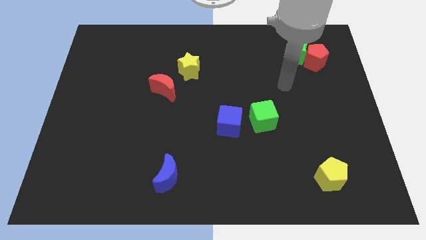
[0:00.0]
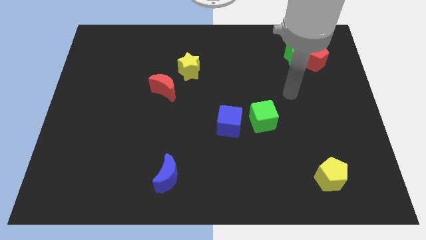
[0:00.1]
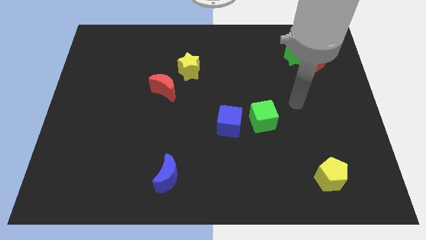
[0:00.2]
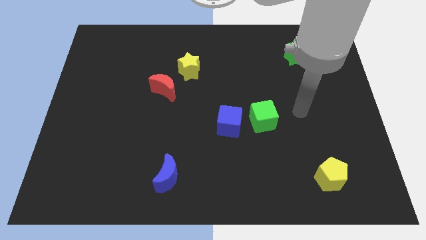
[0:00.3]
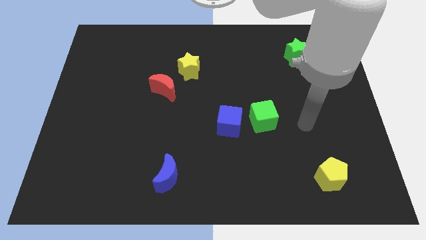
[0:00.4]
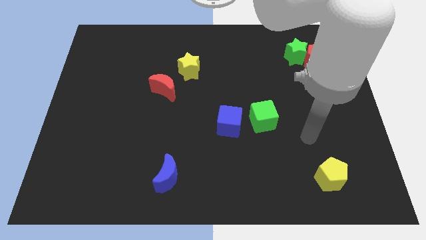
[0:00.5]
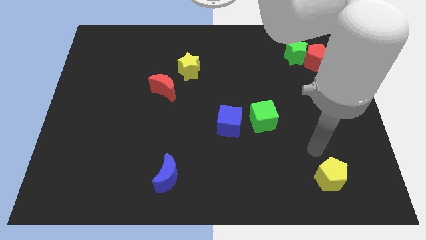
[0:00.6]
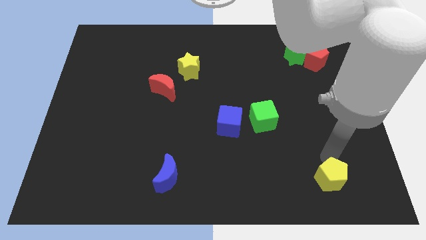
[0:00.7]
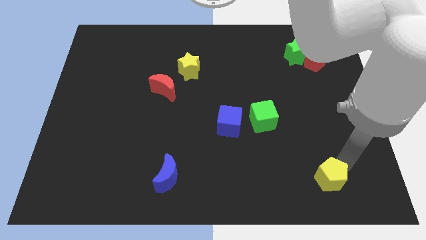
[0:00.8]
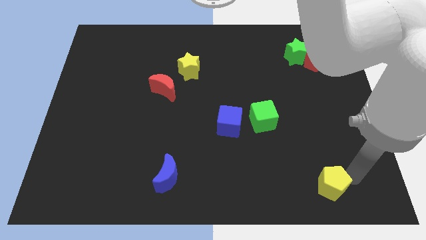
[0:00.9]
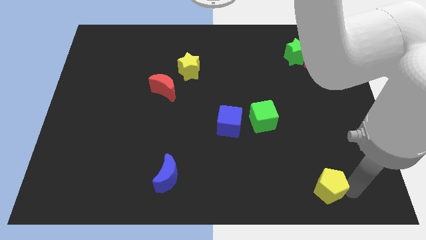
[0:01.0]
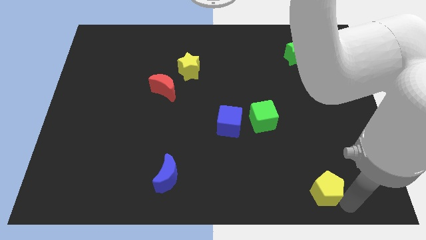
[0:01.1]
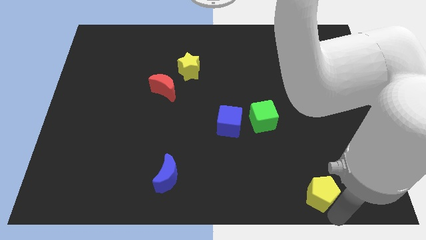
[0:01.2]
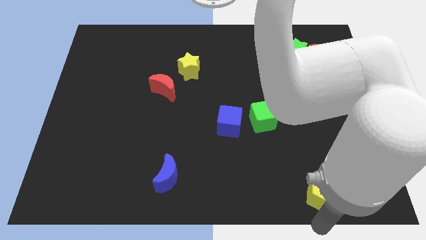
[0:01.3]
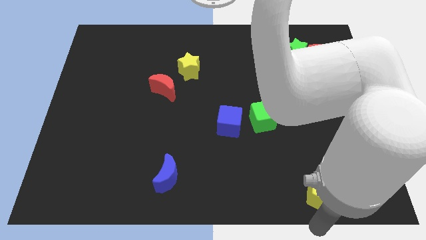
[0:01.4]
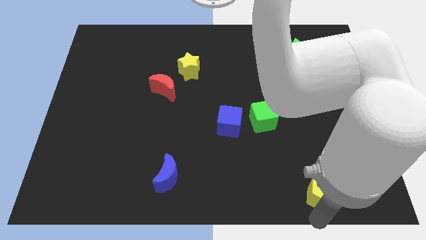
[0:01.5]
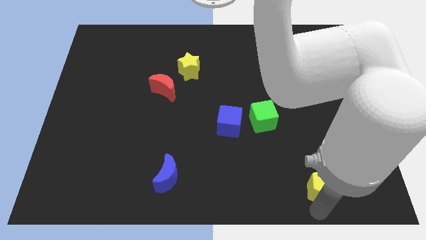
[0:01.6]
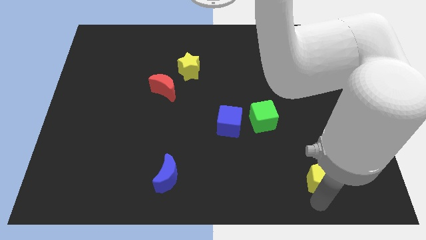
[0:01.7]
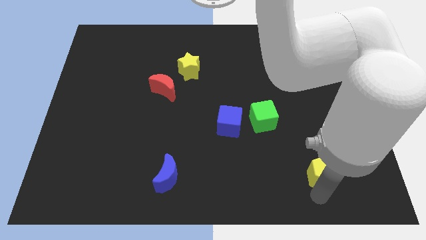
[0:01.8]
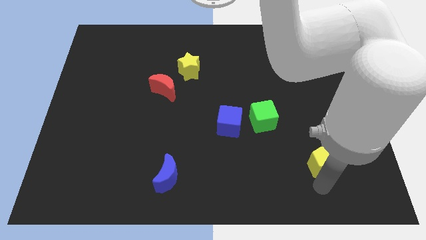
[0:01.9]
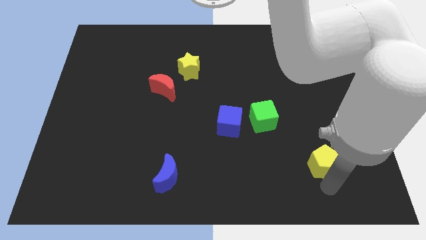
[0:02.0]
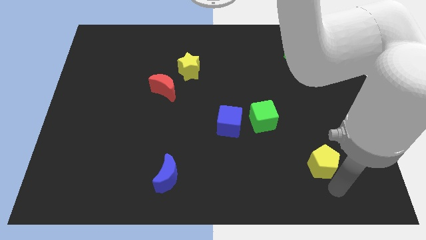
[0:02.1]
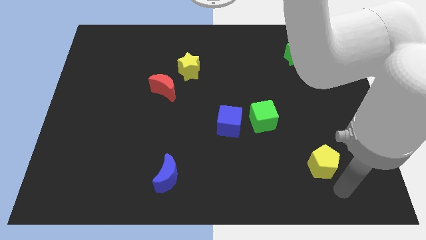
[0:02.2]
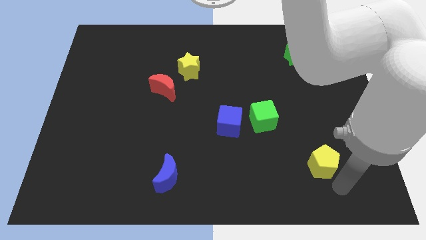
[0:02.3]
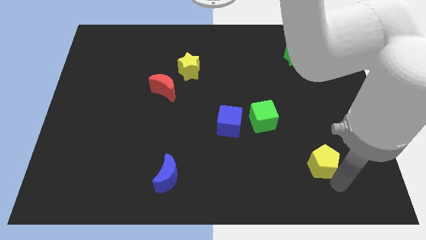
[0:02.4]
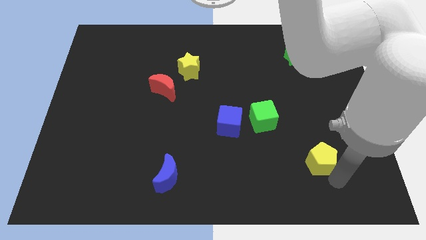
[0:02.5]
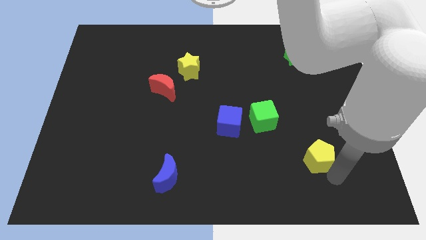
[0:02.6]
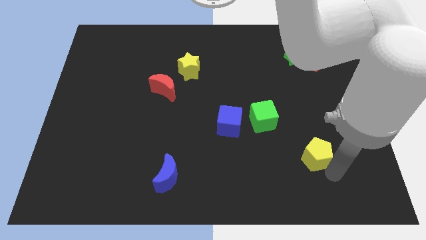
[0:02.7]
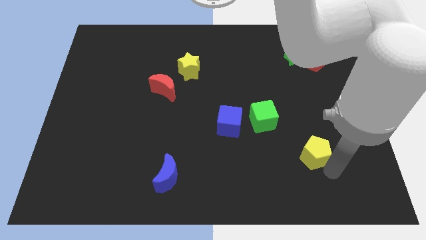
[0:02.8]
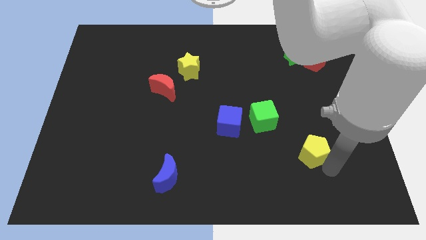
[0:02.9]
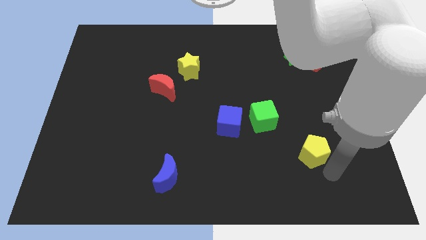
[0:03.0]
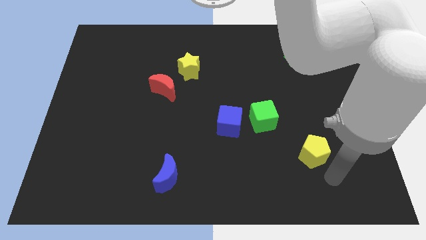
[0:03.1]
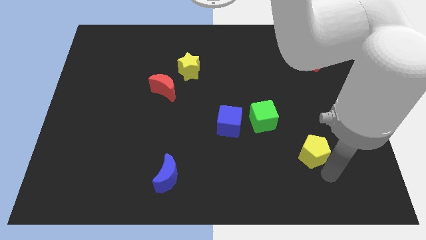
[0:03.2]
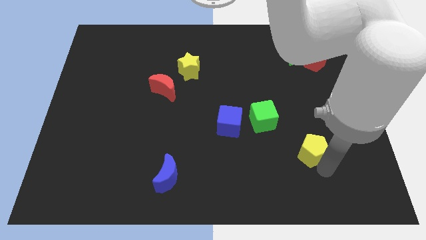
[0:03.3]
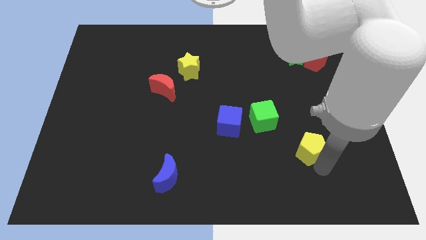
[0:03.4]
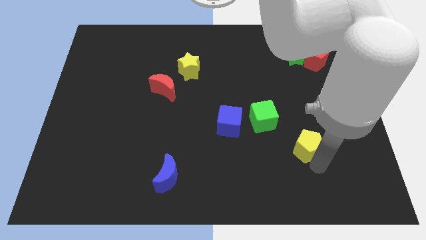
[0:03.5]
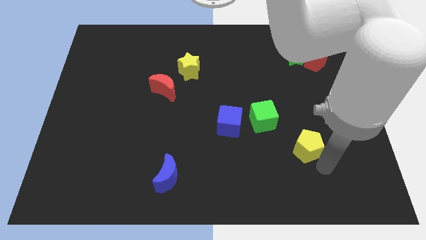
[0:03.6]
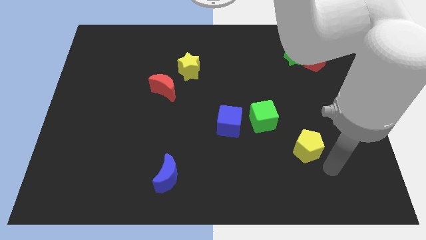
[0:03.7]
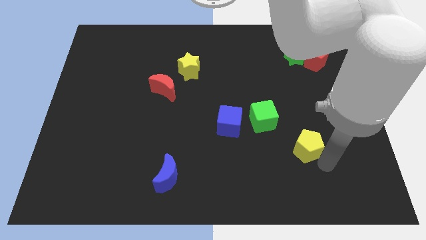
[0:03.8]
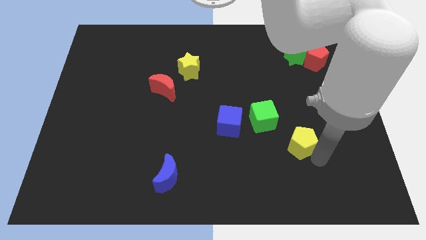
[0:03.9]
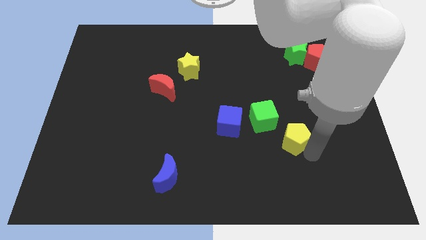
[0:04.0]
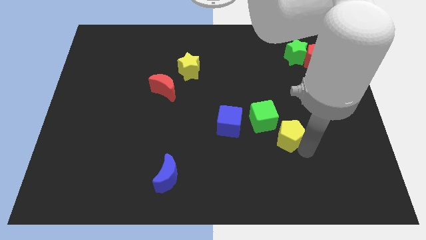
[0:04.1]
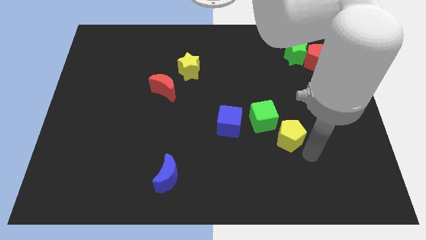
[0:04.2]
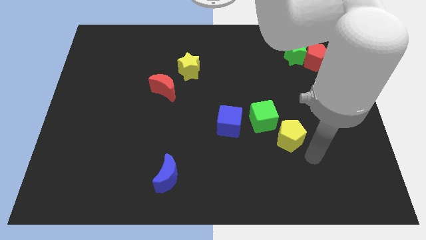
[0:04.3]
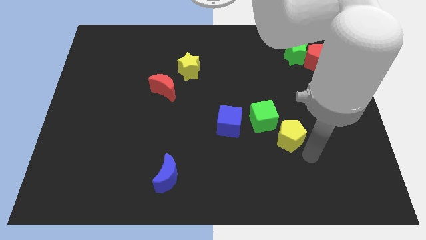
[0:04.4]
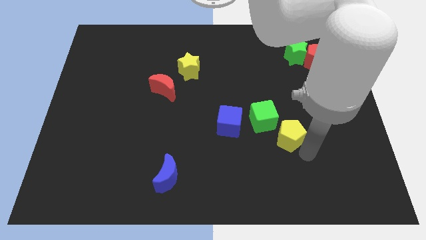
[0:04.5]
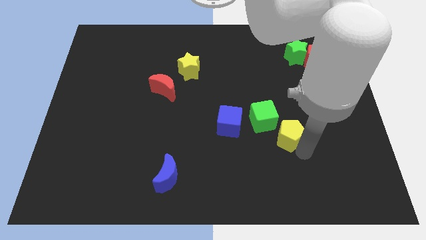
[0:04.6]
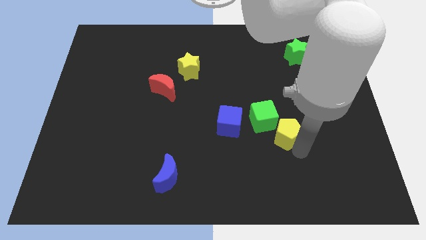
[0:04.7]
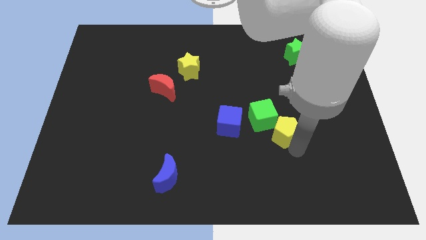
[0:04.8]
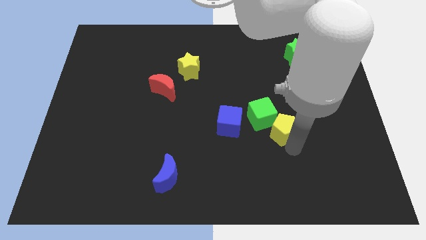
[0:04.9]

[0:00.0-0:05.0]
slide the yellow pentagon next to the green cube

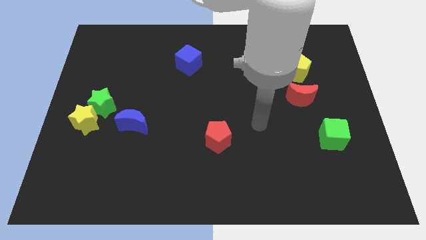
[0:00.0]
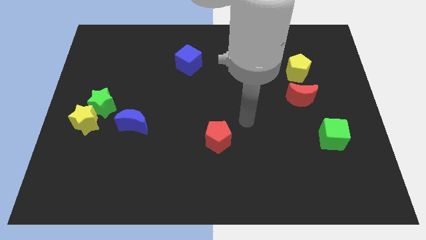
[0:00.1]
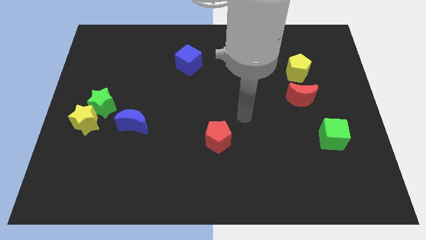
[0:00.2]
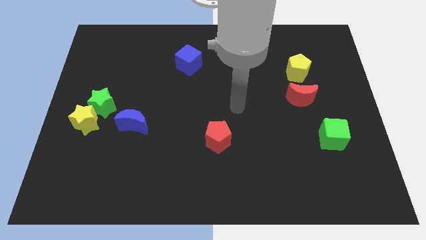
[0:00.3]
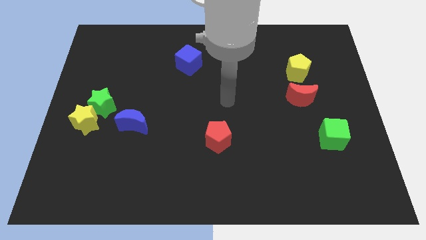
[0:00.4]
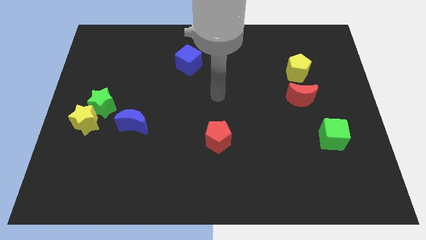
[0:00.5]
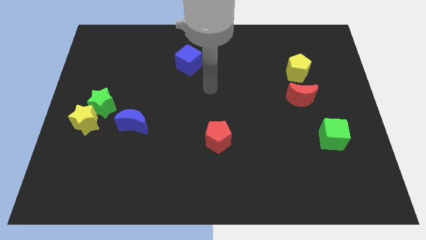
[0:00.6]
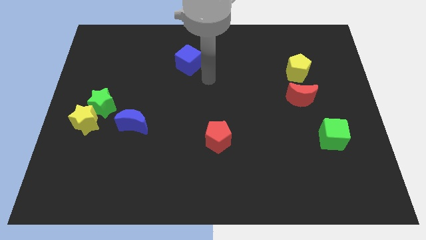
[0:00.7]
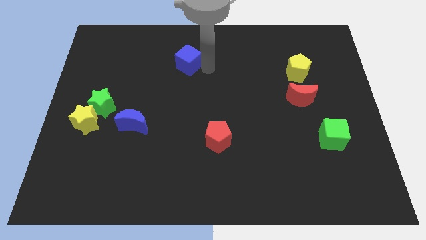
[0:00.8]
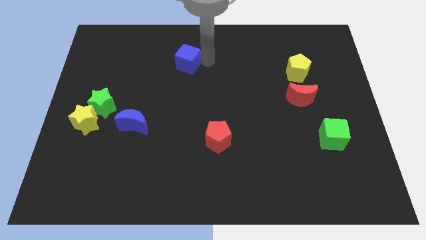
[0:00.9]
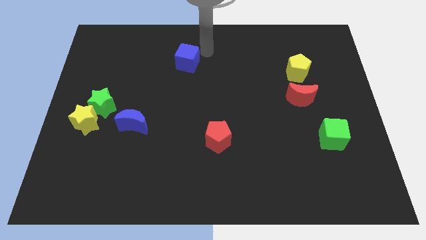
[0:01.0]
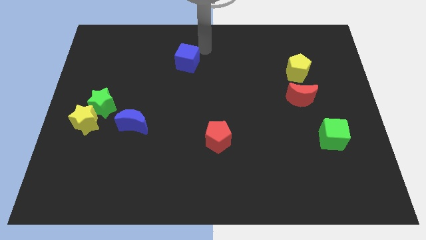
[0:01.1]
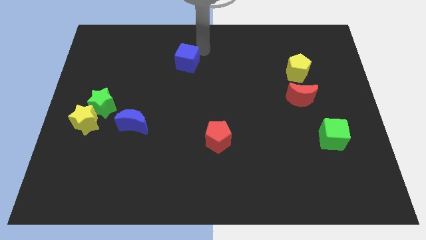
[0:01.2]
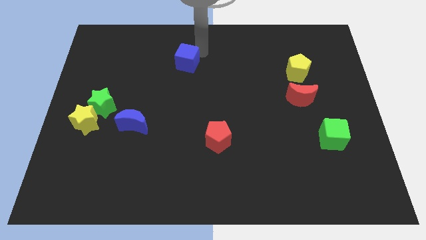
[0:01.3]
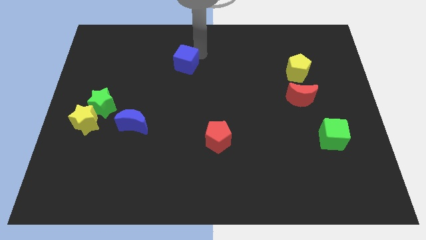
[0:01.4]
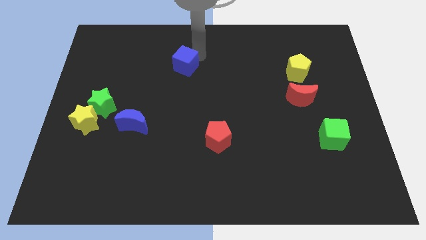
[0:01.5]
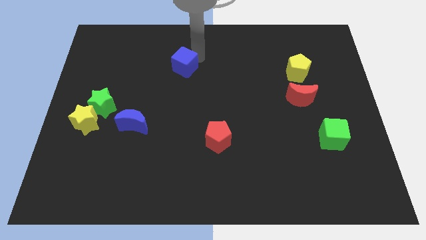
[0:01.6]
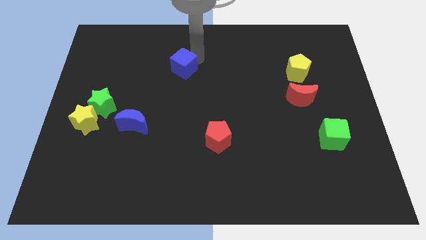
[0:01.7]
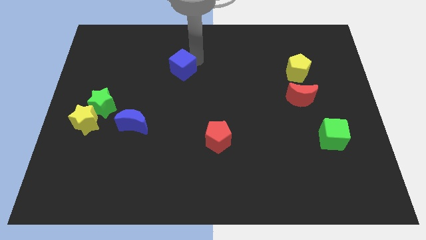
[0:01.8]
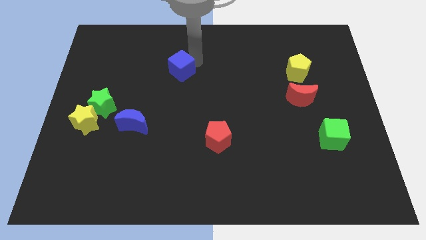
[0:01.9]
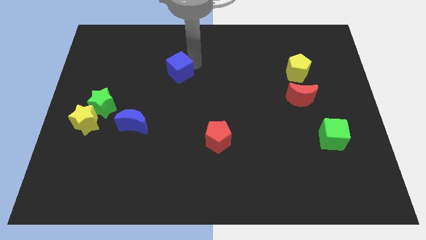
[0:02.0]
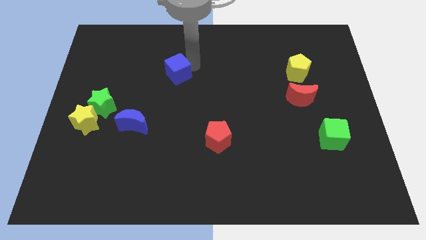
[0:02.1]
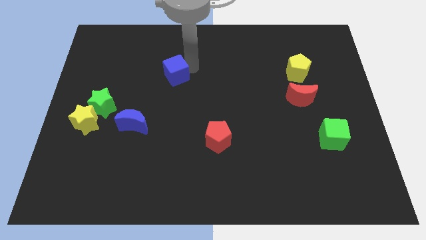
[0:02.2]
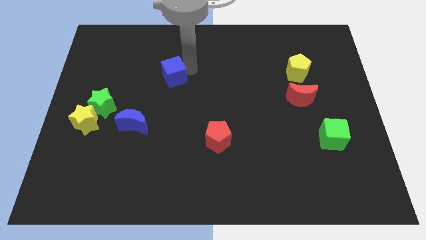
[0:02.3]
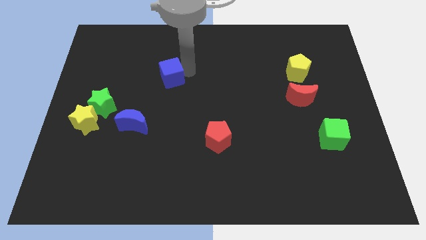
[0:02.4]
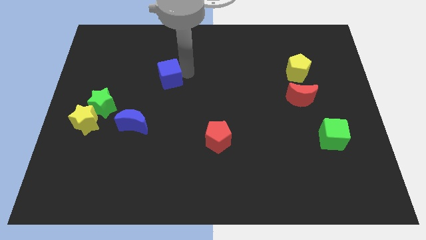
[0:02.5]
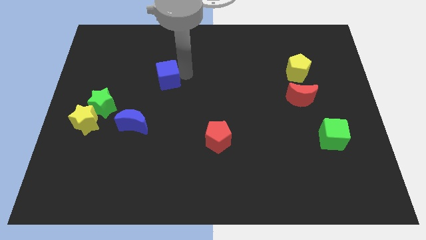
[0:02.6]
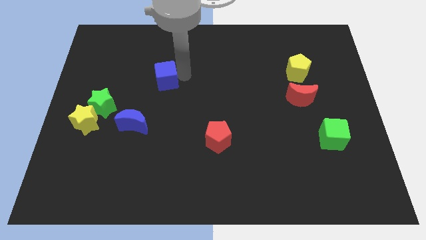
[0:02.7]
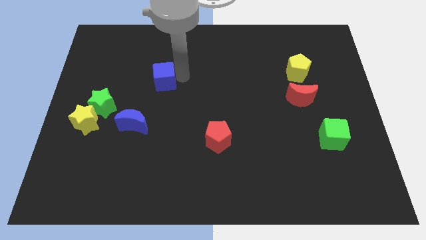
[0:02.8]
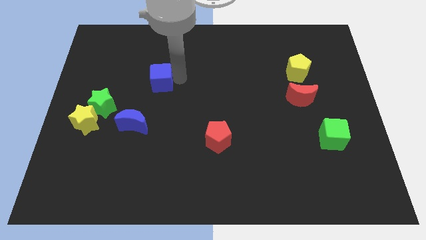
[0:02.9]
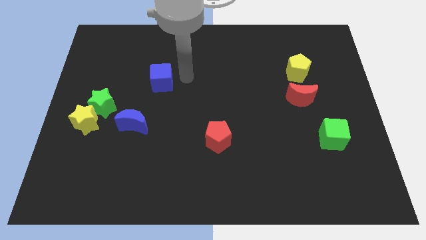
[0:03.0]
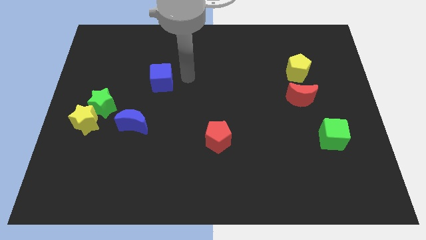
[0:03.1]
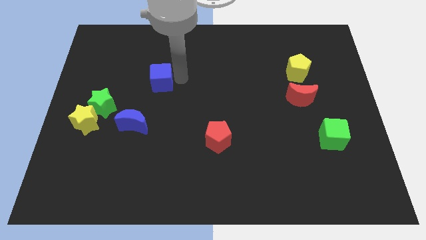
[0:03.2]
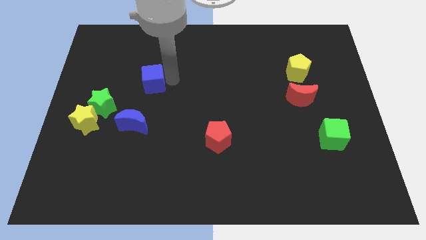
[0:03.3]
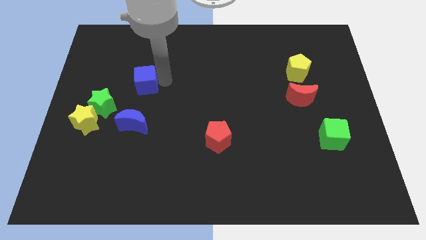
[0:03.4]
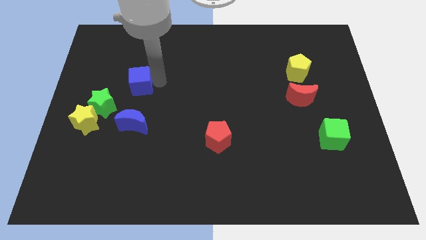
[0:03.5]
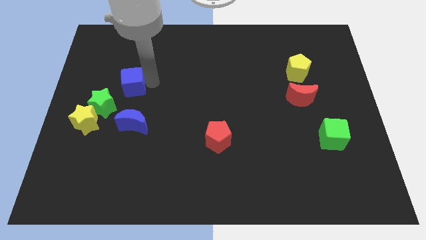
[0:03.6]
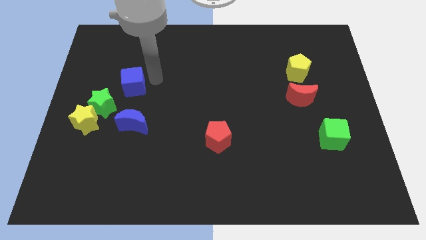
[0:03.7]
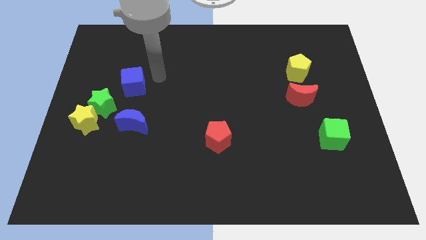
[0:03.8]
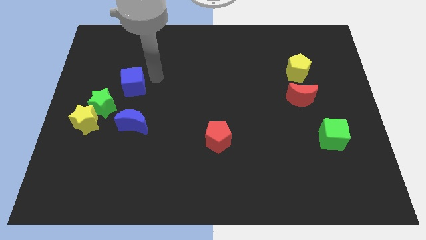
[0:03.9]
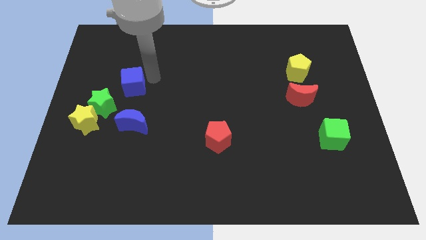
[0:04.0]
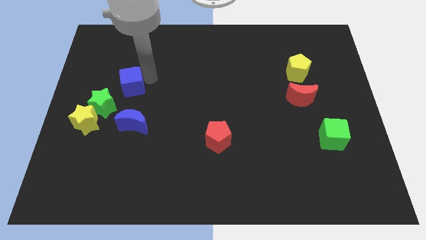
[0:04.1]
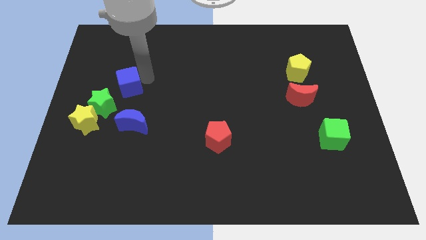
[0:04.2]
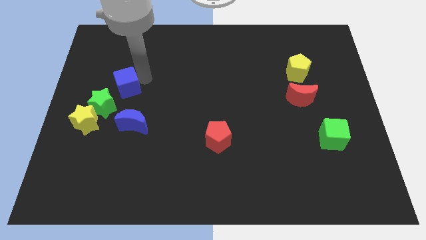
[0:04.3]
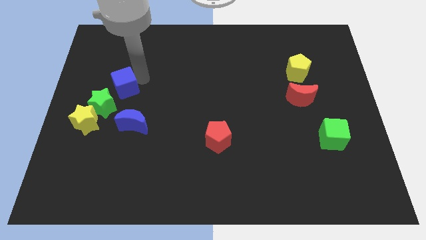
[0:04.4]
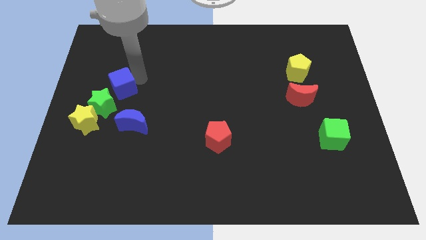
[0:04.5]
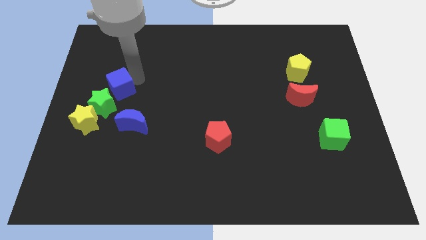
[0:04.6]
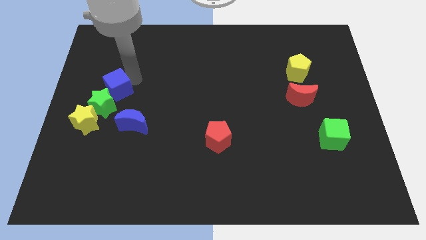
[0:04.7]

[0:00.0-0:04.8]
push the blue cube close to the green star
